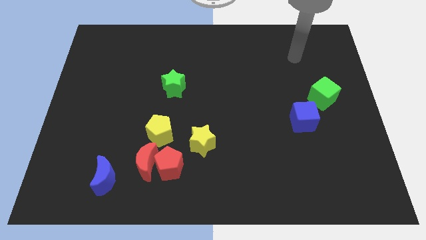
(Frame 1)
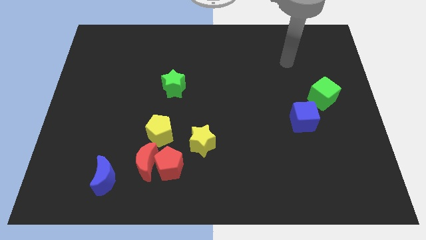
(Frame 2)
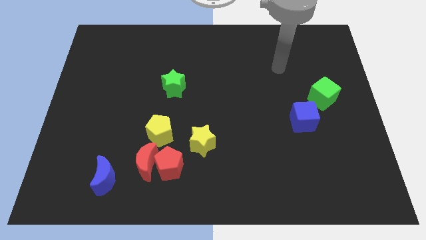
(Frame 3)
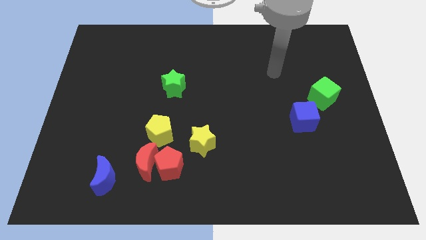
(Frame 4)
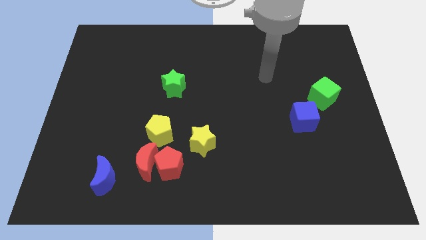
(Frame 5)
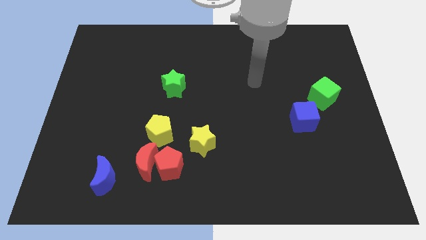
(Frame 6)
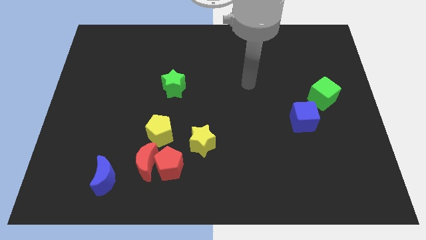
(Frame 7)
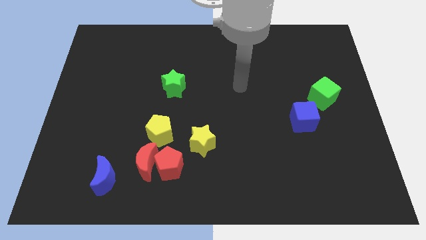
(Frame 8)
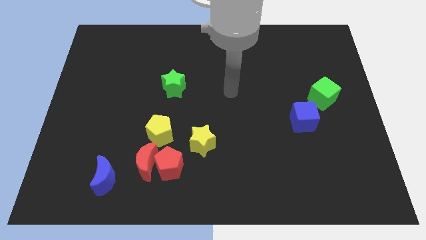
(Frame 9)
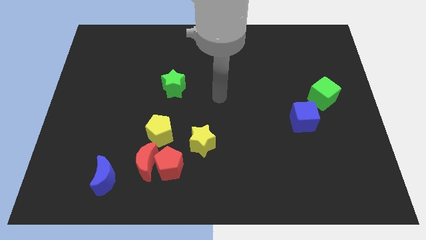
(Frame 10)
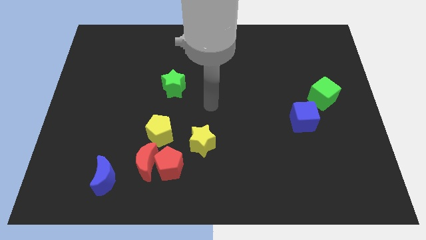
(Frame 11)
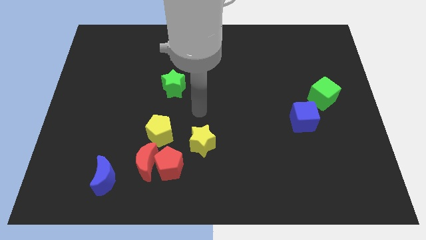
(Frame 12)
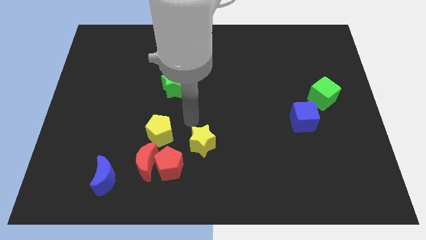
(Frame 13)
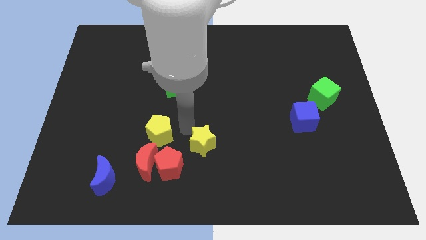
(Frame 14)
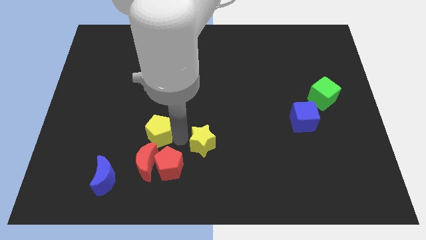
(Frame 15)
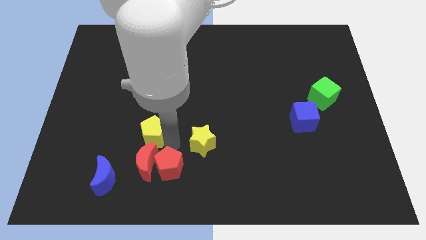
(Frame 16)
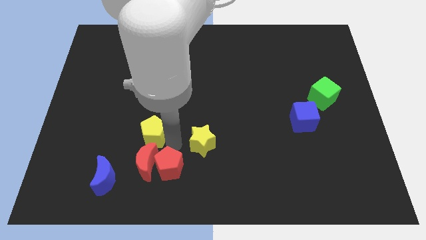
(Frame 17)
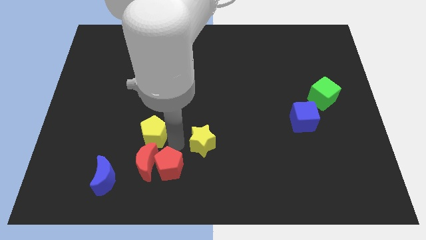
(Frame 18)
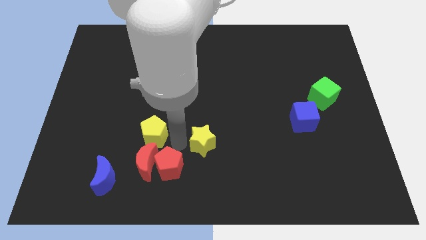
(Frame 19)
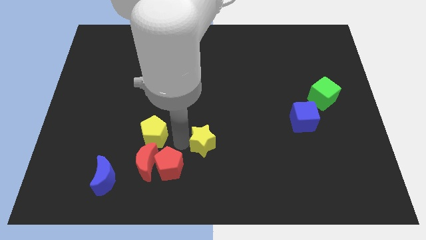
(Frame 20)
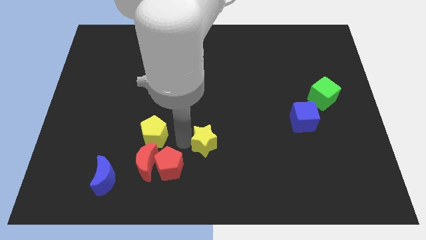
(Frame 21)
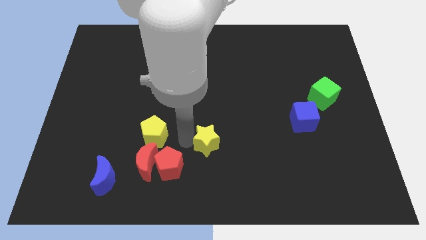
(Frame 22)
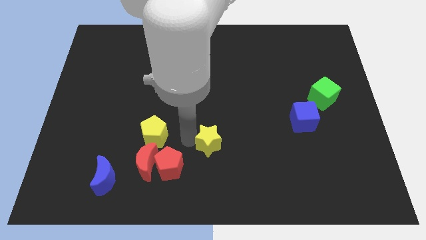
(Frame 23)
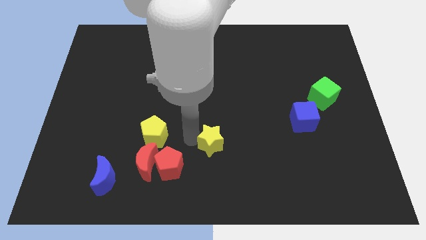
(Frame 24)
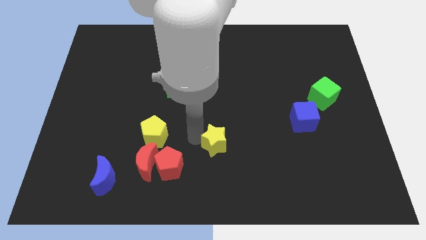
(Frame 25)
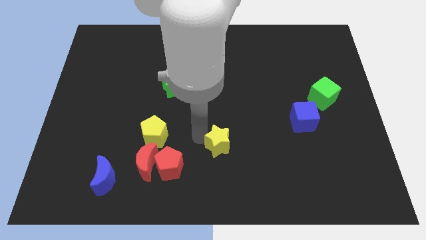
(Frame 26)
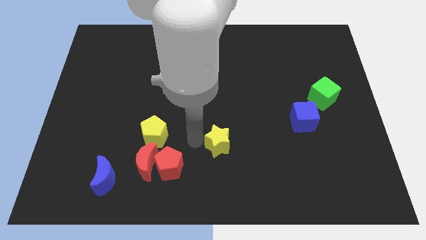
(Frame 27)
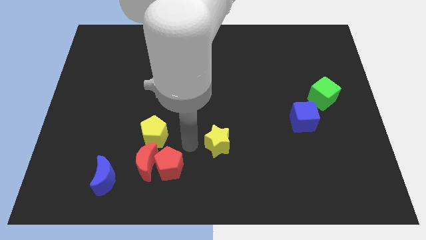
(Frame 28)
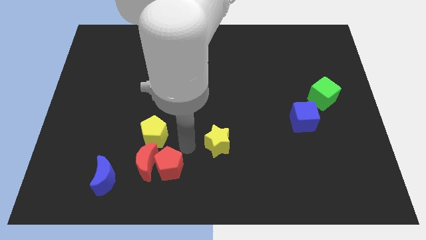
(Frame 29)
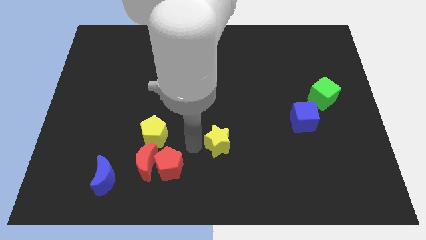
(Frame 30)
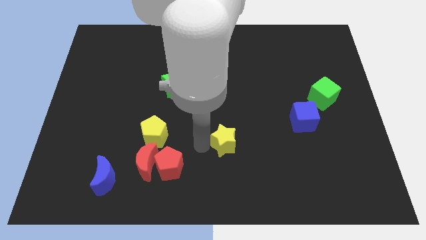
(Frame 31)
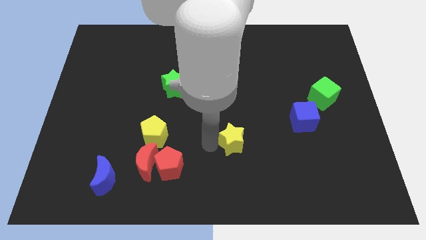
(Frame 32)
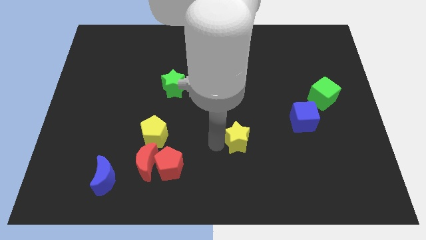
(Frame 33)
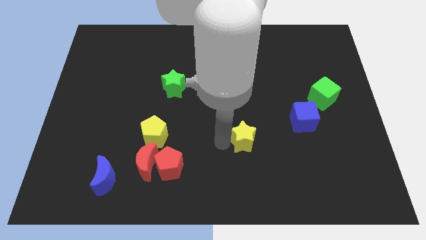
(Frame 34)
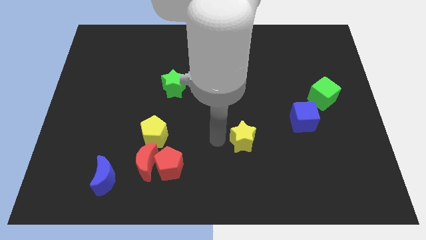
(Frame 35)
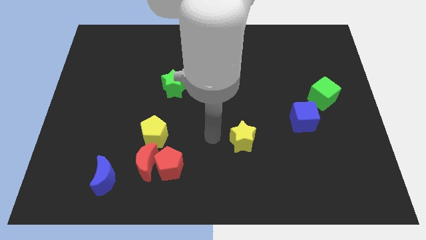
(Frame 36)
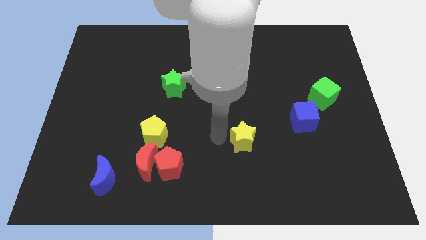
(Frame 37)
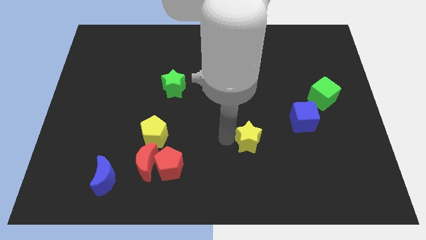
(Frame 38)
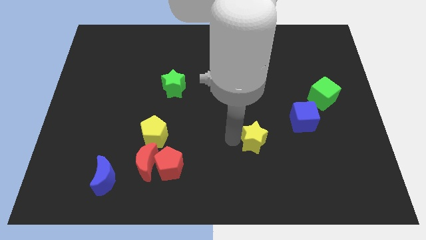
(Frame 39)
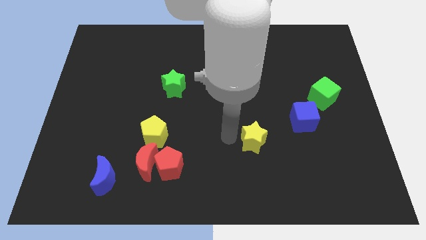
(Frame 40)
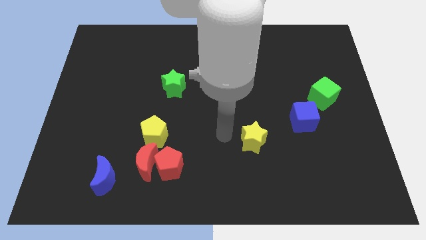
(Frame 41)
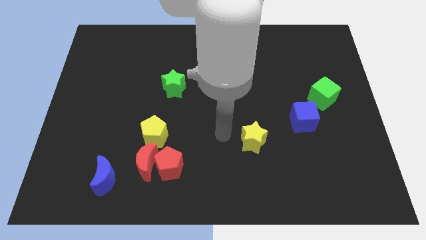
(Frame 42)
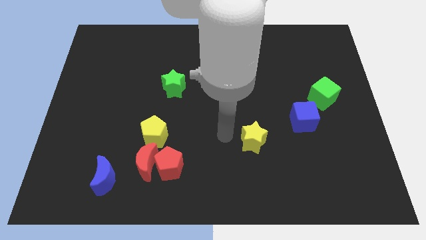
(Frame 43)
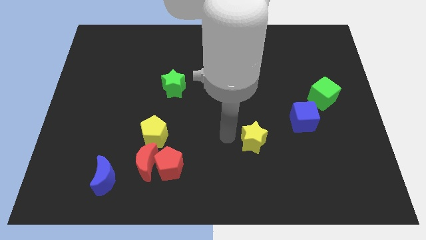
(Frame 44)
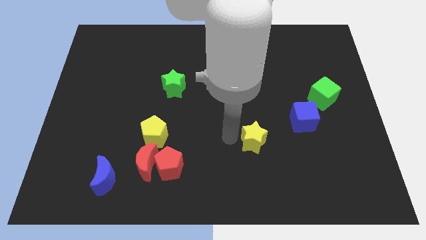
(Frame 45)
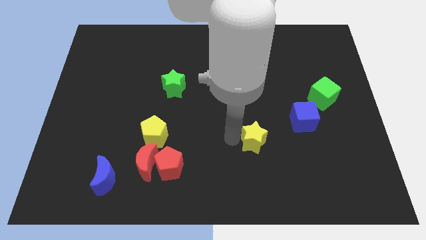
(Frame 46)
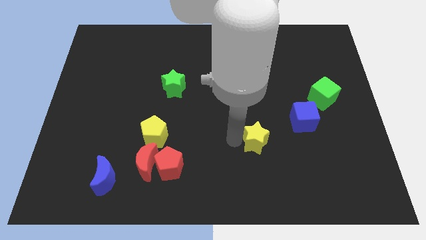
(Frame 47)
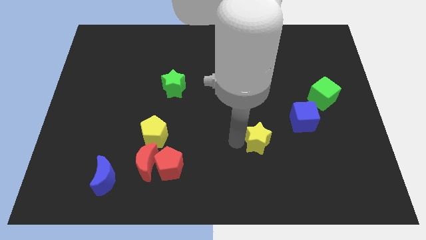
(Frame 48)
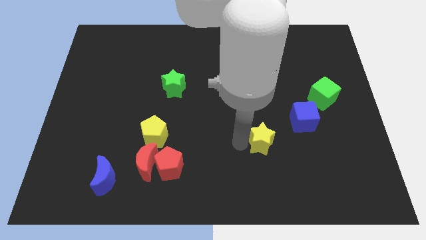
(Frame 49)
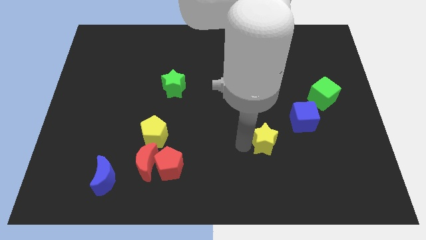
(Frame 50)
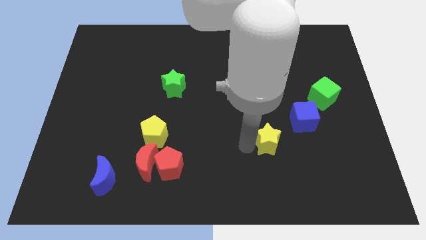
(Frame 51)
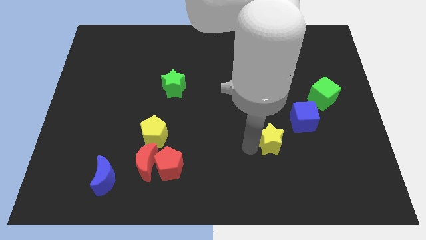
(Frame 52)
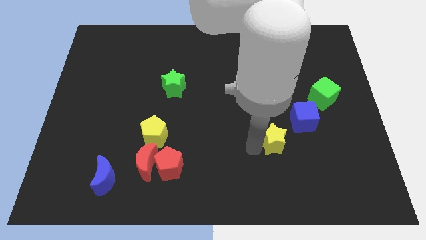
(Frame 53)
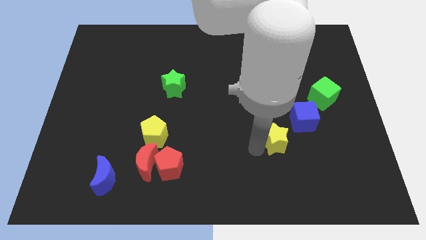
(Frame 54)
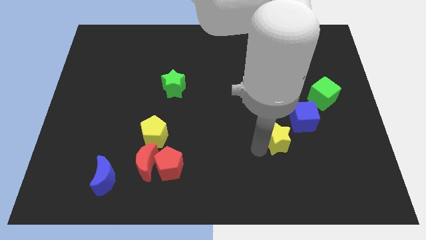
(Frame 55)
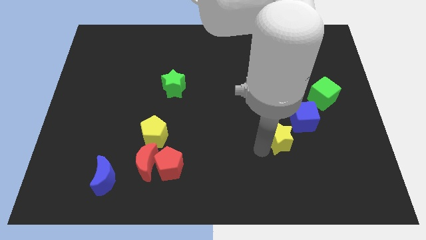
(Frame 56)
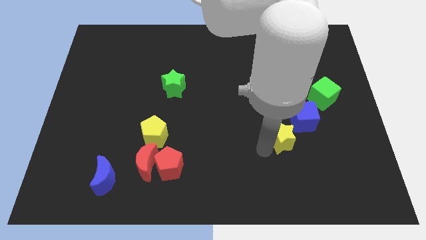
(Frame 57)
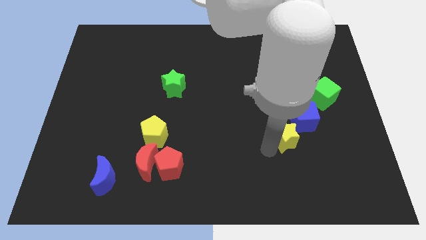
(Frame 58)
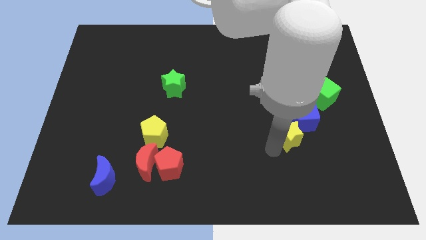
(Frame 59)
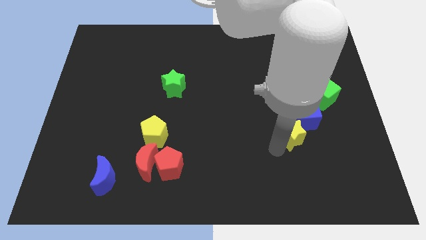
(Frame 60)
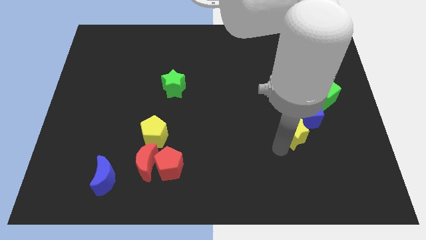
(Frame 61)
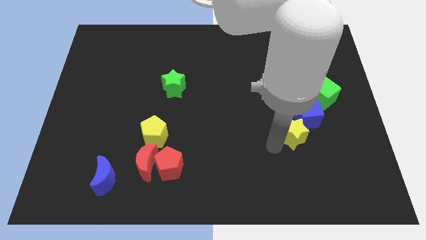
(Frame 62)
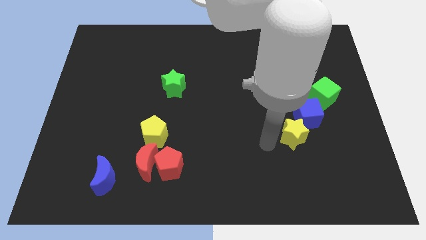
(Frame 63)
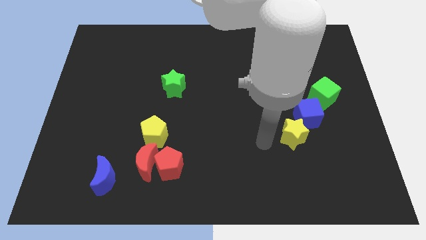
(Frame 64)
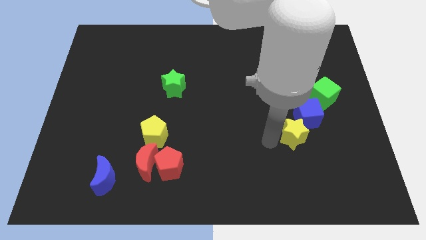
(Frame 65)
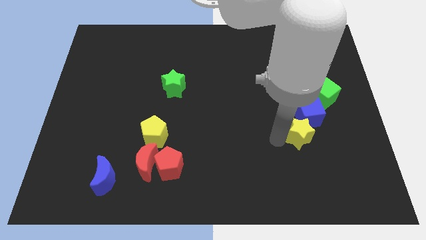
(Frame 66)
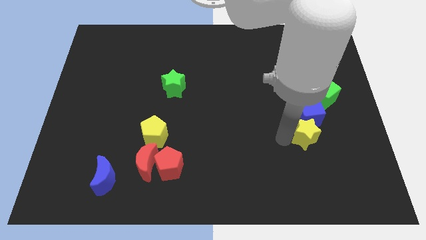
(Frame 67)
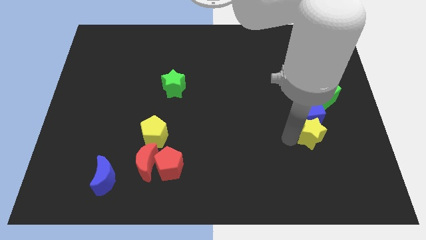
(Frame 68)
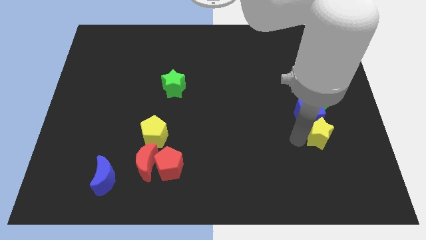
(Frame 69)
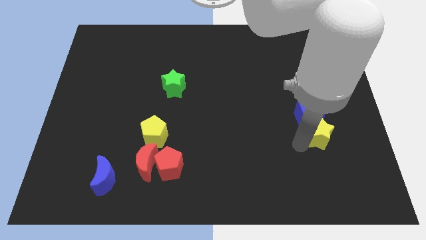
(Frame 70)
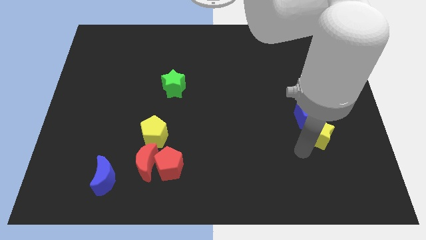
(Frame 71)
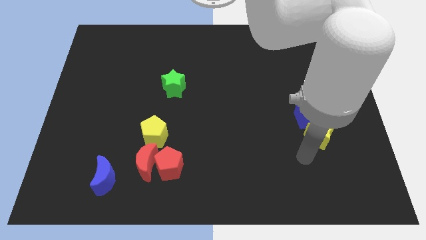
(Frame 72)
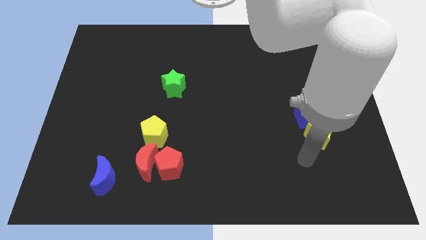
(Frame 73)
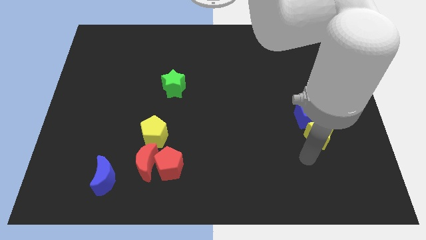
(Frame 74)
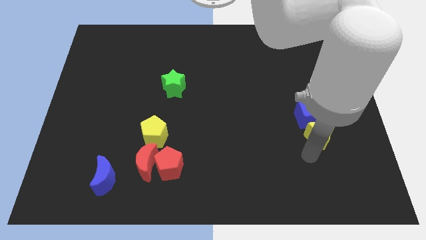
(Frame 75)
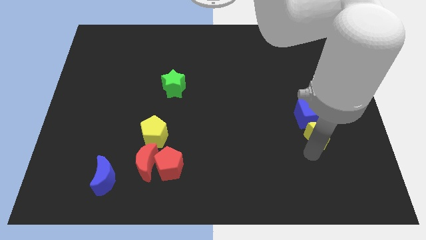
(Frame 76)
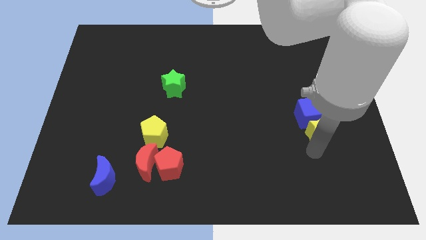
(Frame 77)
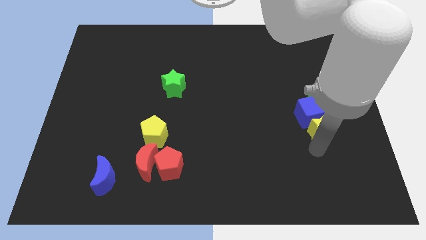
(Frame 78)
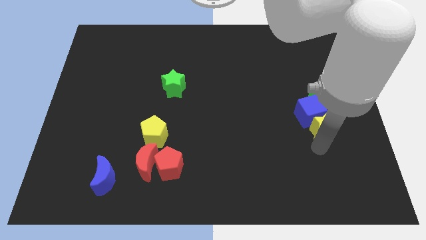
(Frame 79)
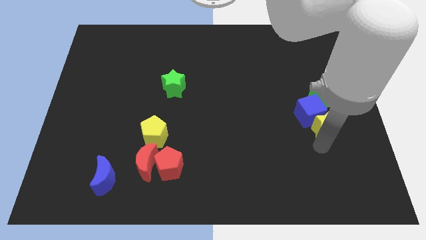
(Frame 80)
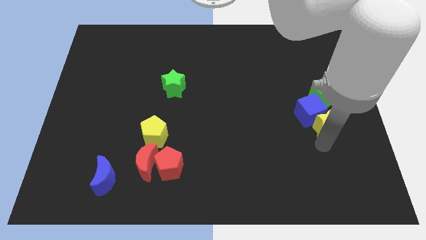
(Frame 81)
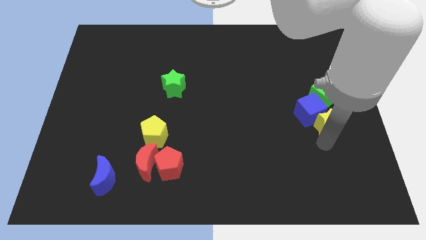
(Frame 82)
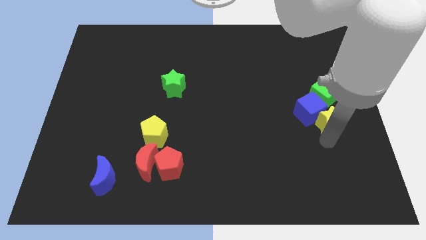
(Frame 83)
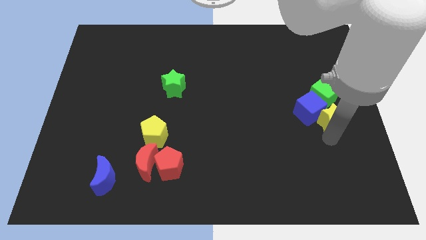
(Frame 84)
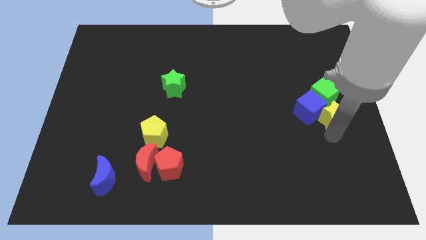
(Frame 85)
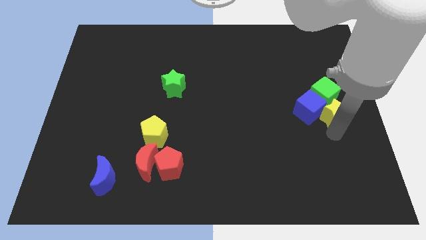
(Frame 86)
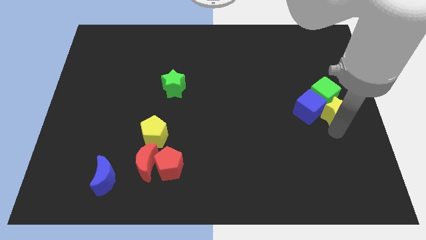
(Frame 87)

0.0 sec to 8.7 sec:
put the yellow star close to the green cube
